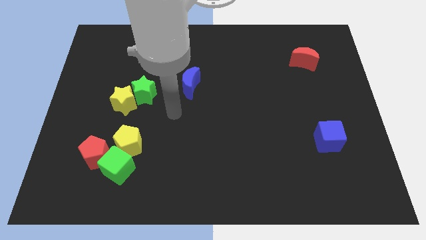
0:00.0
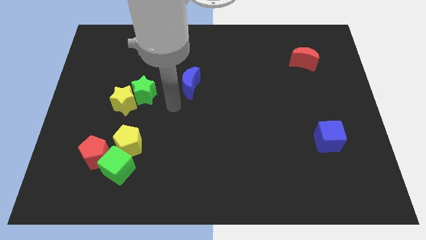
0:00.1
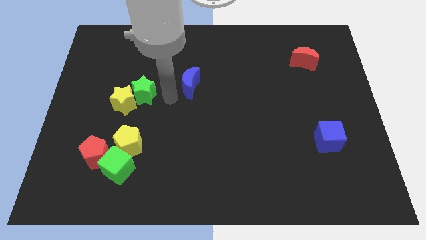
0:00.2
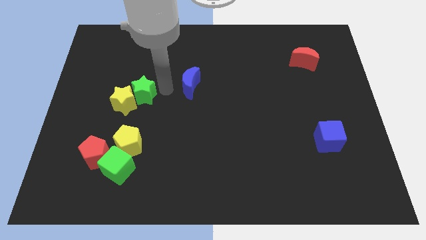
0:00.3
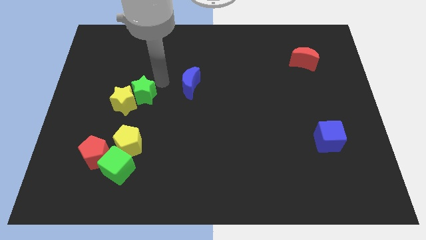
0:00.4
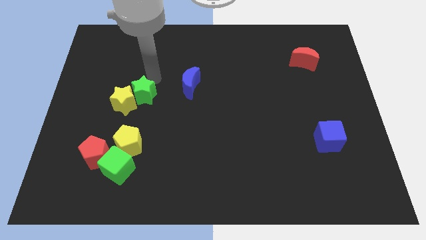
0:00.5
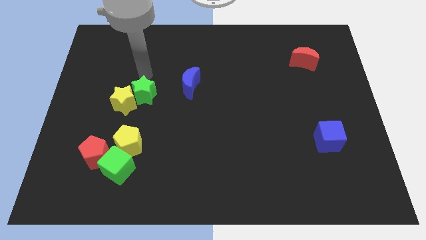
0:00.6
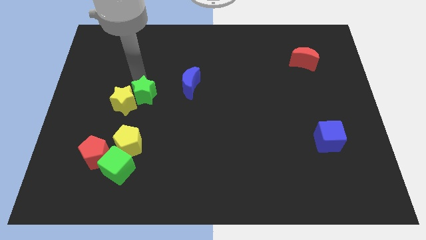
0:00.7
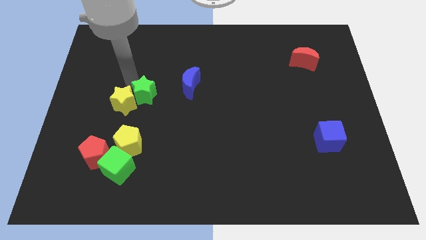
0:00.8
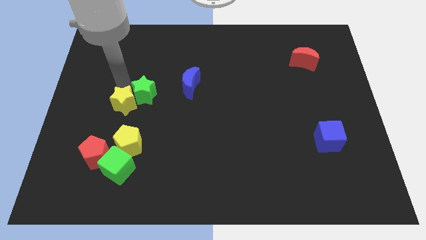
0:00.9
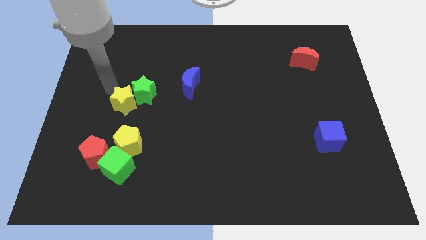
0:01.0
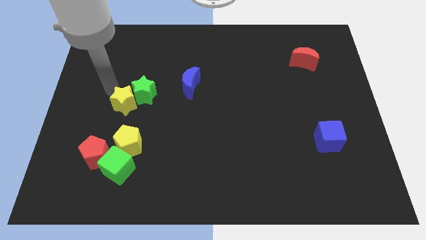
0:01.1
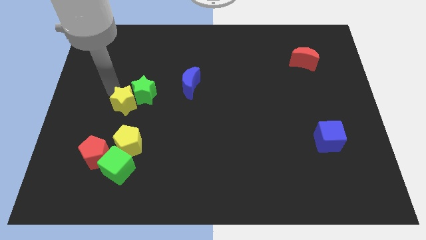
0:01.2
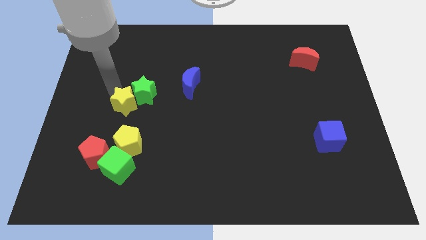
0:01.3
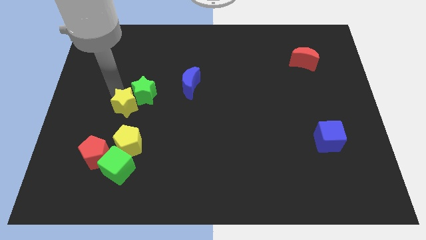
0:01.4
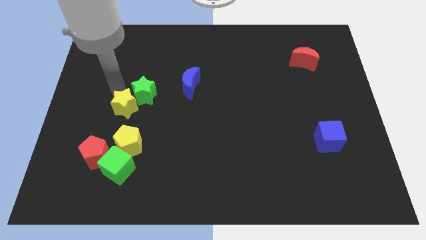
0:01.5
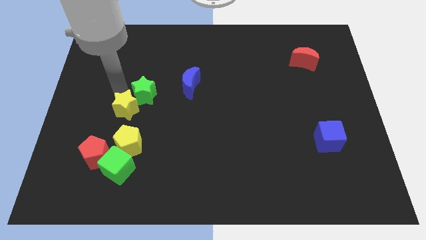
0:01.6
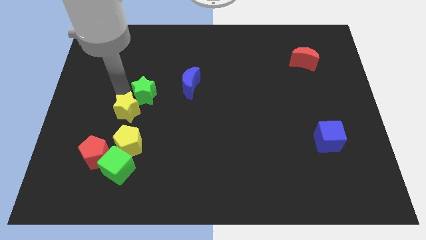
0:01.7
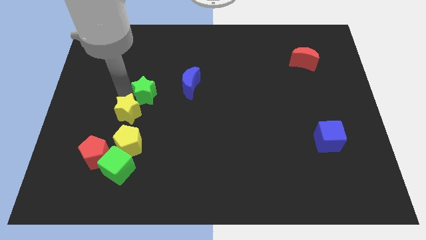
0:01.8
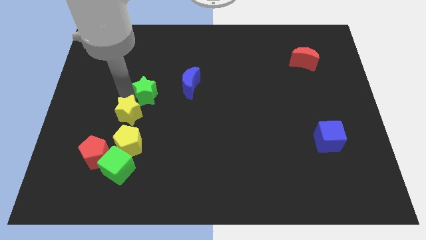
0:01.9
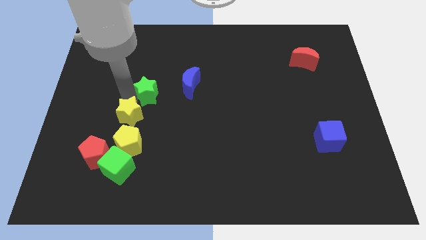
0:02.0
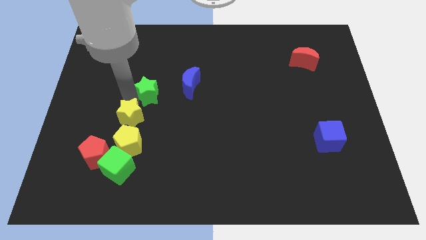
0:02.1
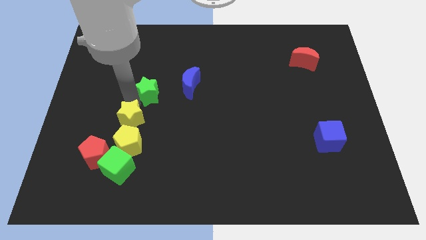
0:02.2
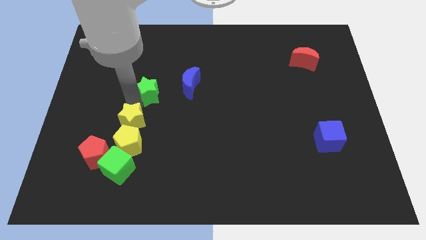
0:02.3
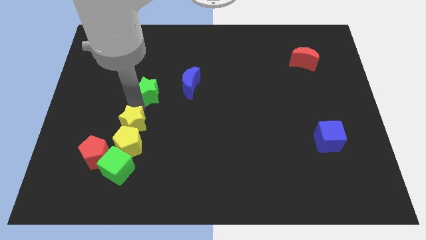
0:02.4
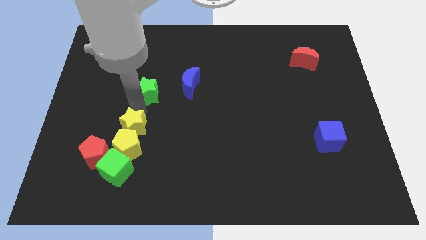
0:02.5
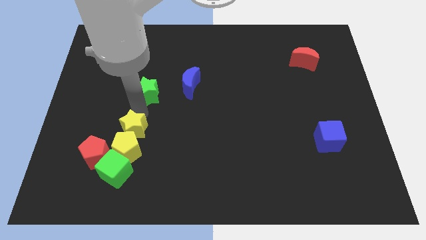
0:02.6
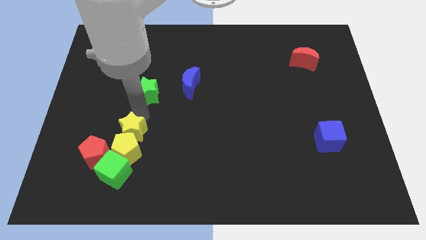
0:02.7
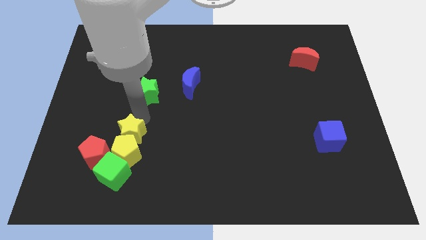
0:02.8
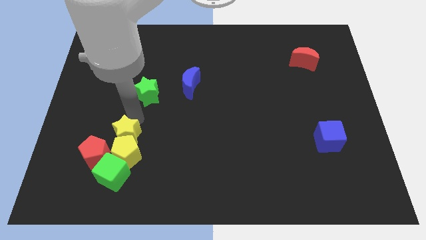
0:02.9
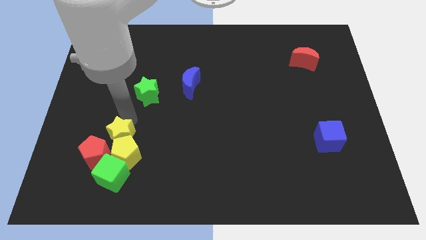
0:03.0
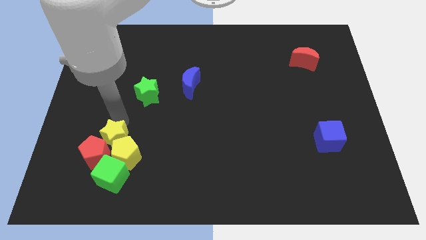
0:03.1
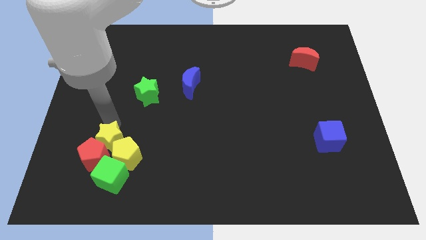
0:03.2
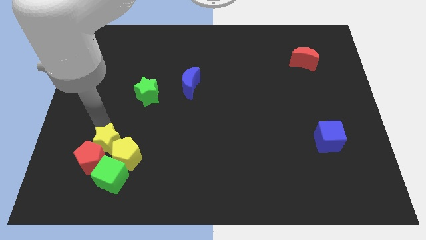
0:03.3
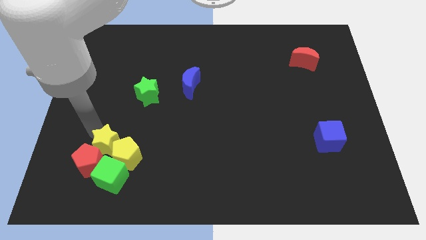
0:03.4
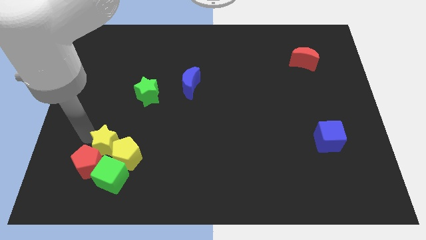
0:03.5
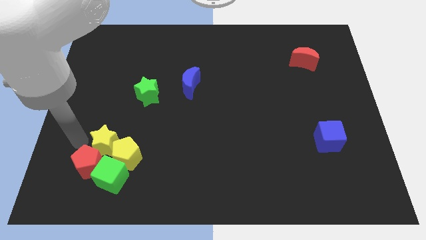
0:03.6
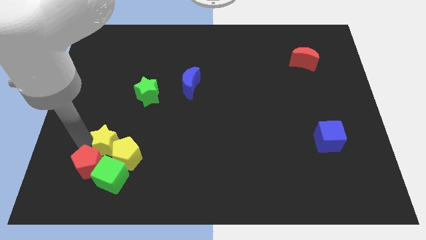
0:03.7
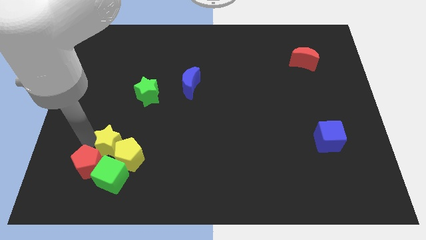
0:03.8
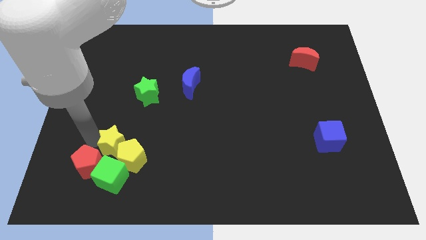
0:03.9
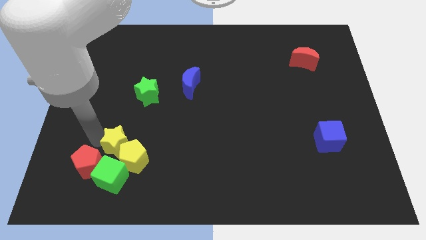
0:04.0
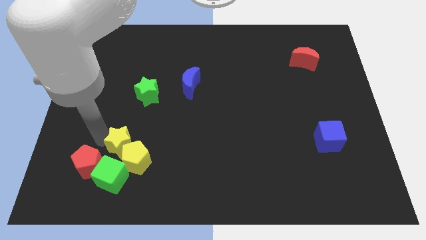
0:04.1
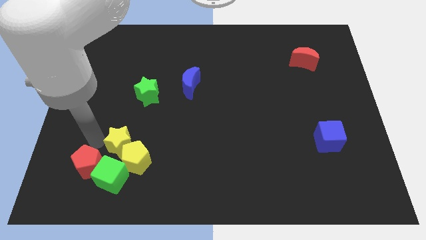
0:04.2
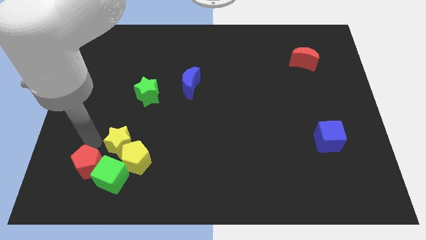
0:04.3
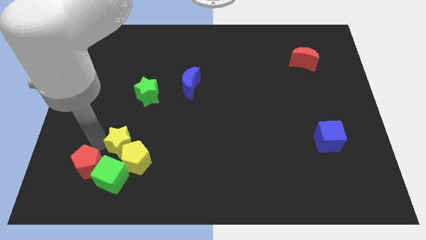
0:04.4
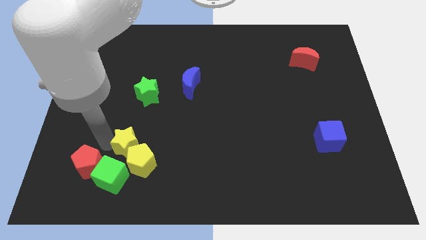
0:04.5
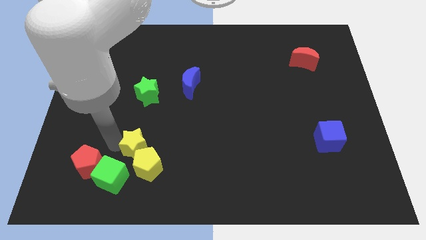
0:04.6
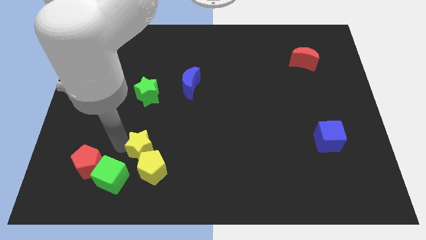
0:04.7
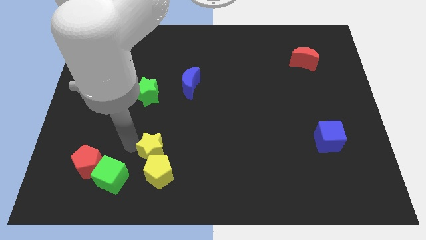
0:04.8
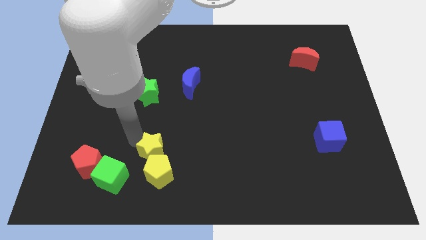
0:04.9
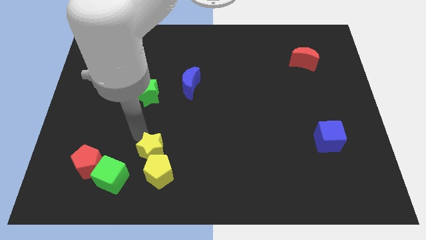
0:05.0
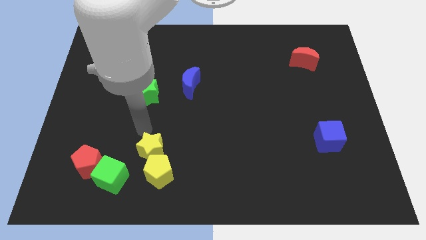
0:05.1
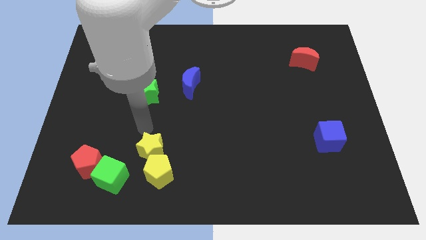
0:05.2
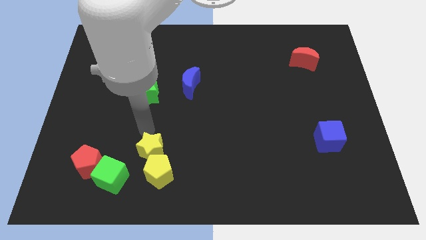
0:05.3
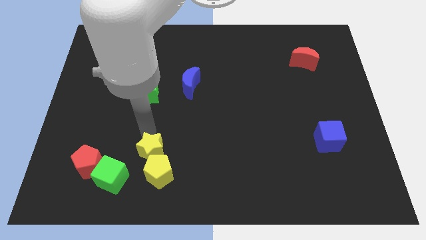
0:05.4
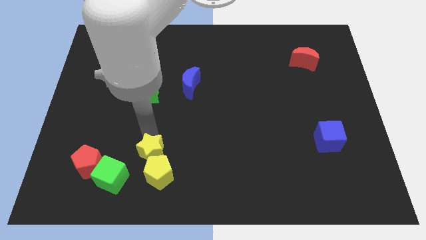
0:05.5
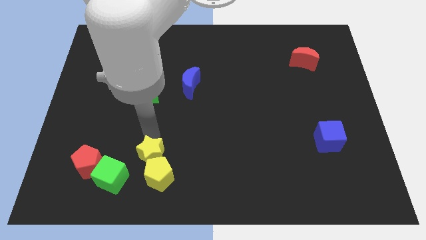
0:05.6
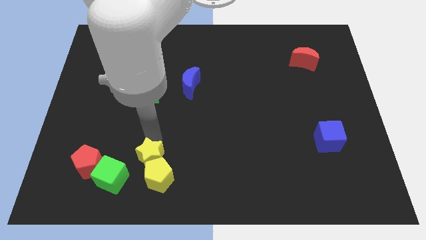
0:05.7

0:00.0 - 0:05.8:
slide the yellow star just right of the green cube

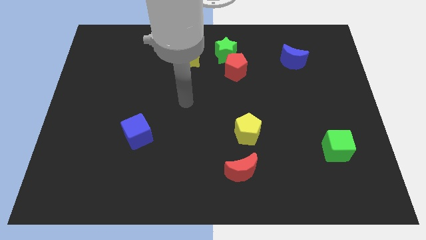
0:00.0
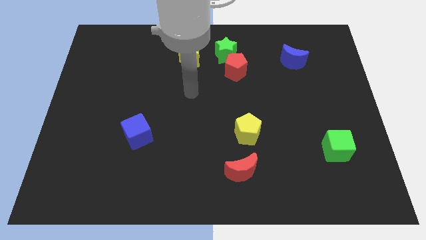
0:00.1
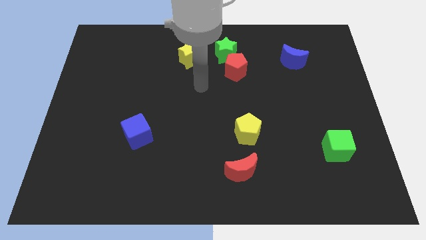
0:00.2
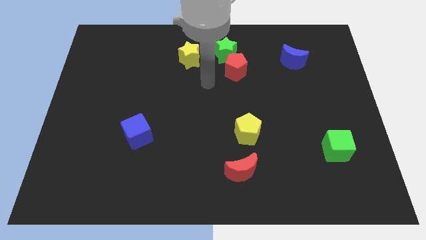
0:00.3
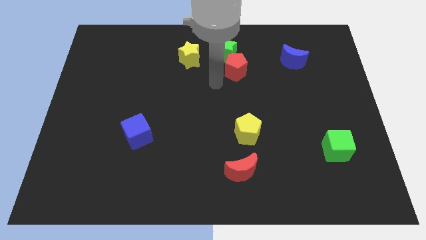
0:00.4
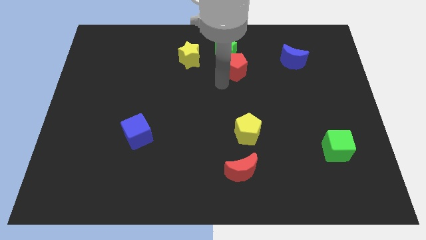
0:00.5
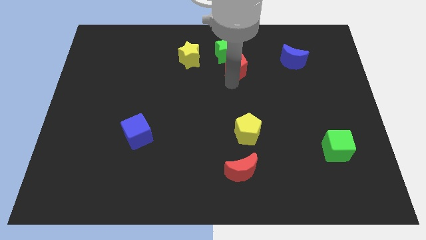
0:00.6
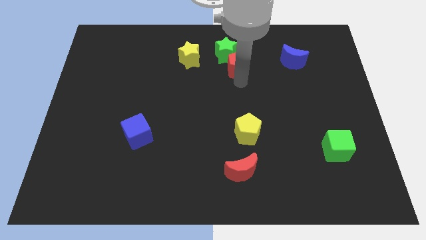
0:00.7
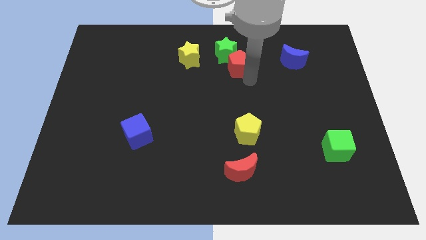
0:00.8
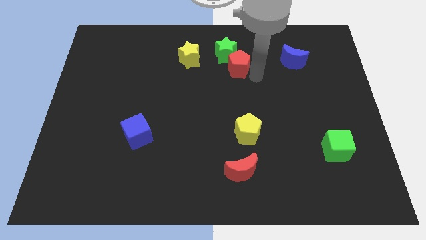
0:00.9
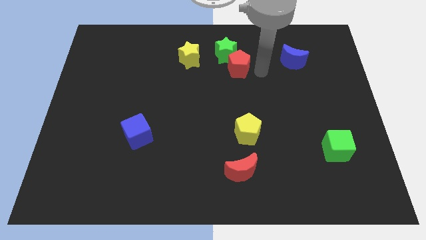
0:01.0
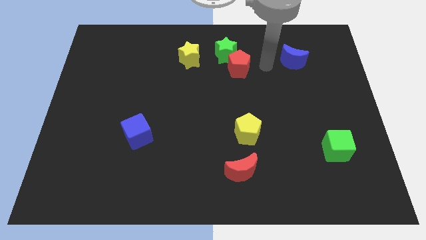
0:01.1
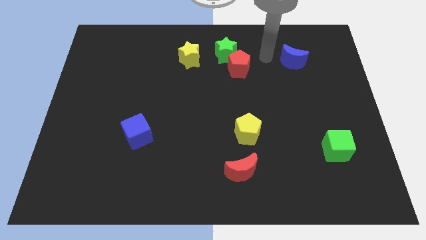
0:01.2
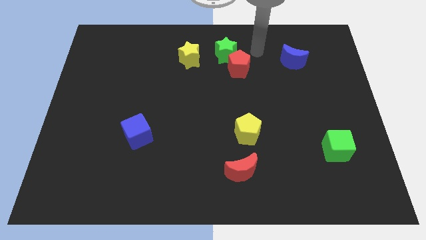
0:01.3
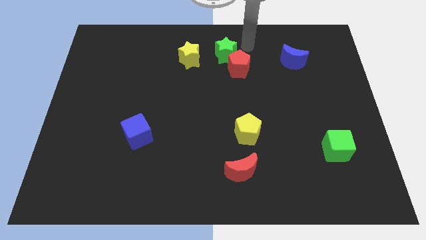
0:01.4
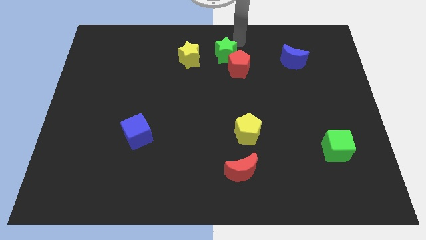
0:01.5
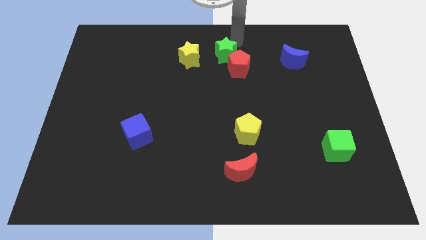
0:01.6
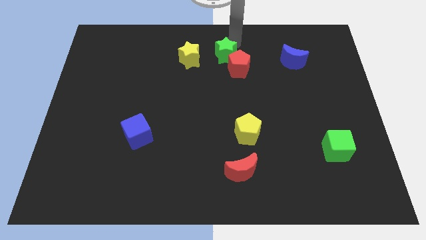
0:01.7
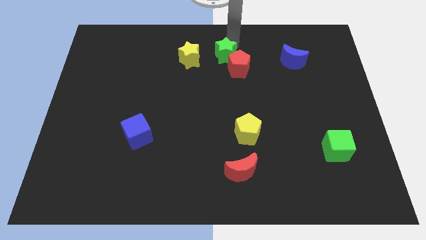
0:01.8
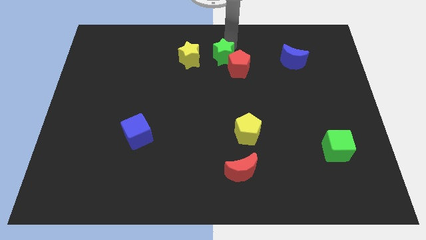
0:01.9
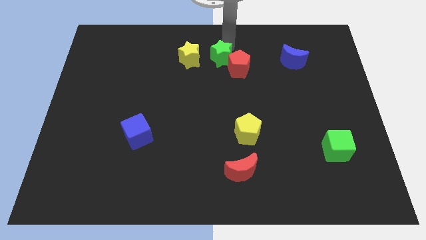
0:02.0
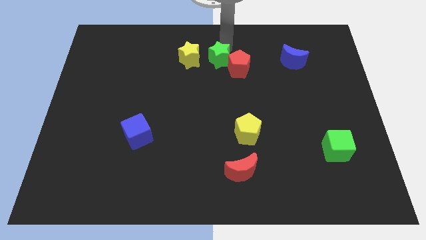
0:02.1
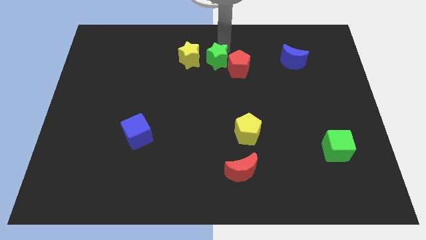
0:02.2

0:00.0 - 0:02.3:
push the green star diagonally down and to the right of the yellow star
